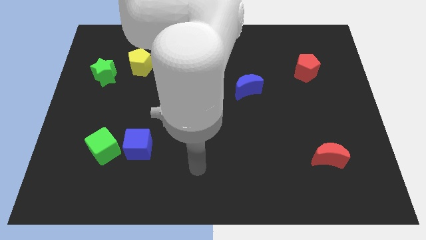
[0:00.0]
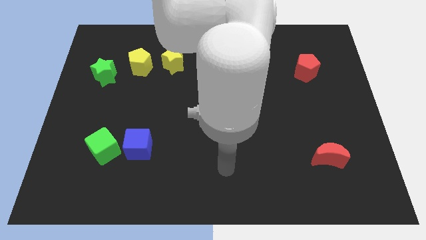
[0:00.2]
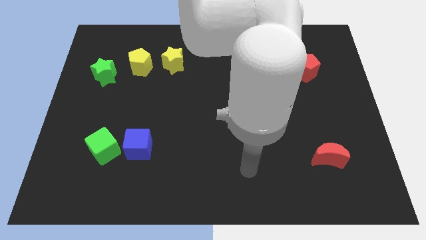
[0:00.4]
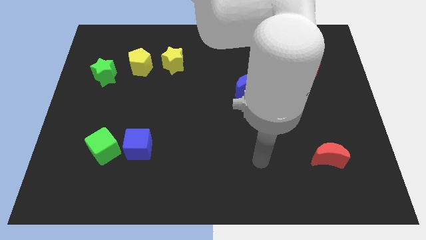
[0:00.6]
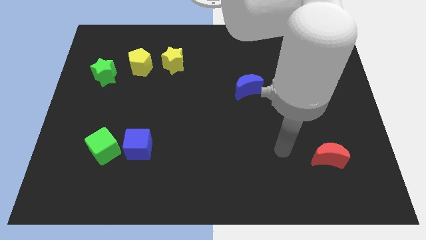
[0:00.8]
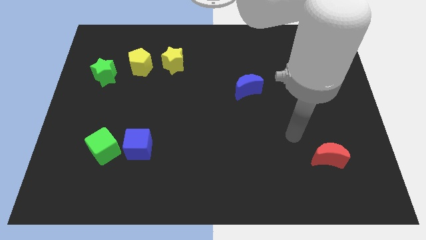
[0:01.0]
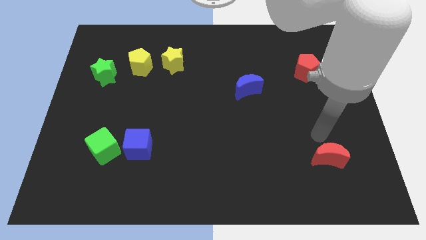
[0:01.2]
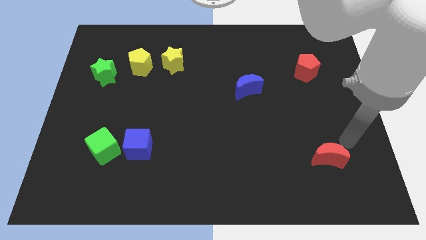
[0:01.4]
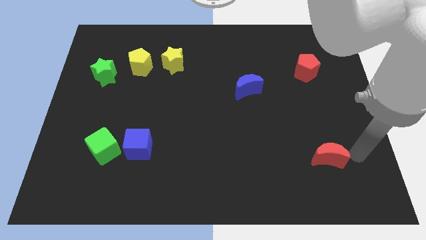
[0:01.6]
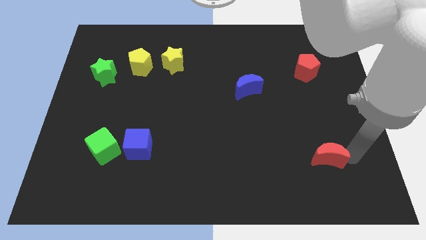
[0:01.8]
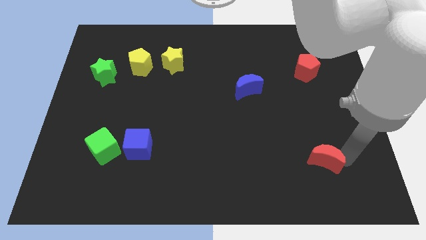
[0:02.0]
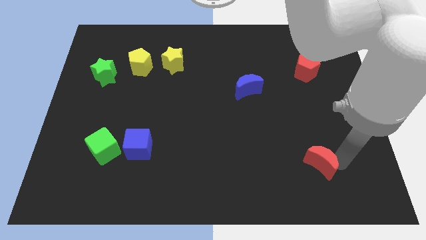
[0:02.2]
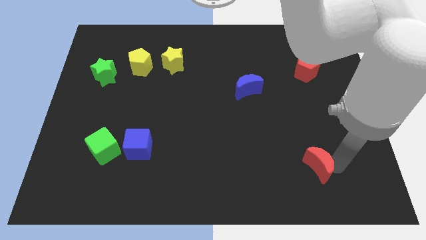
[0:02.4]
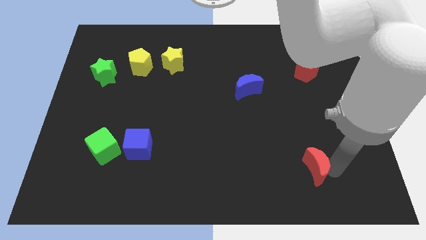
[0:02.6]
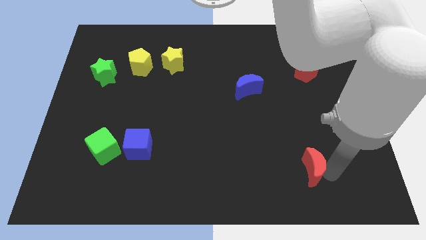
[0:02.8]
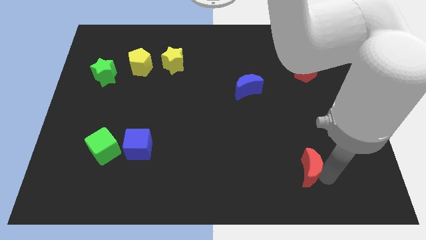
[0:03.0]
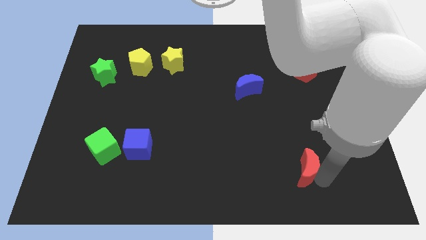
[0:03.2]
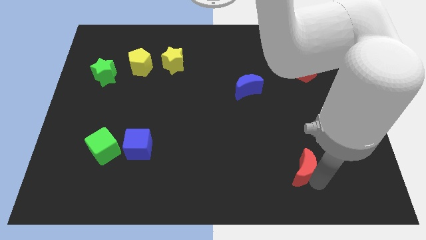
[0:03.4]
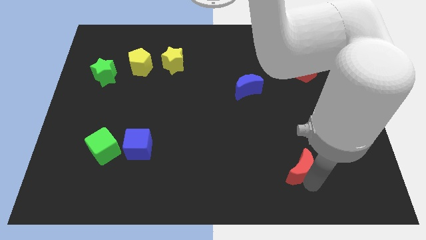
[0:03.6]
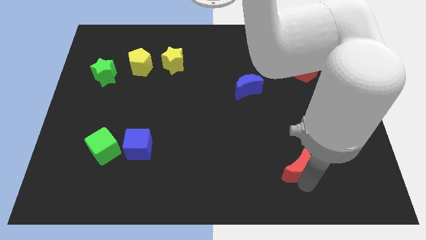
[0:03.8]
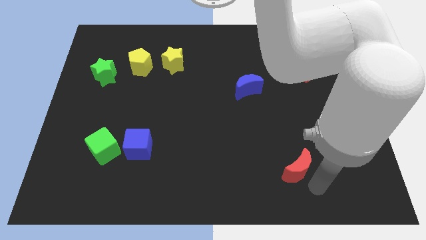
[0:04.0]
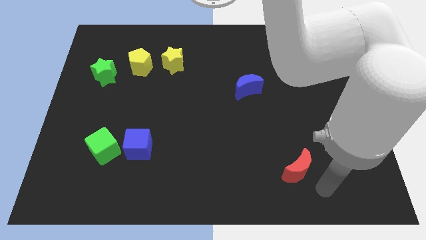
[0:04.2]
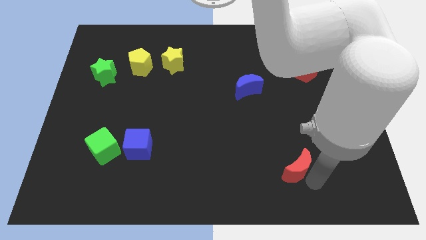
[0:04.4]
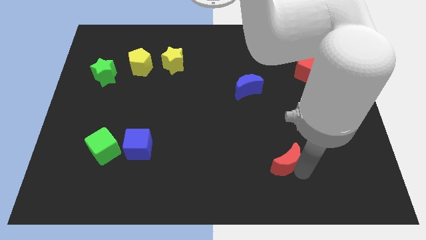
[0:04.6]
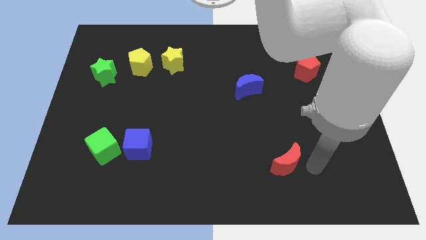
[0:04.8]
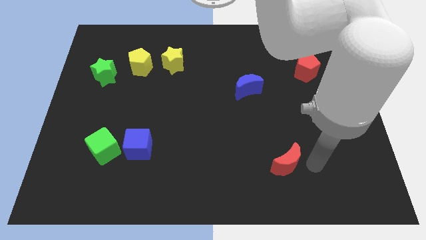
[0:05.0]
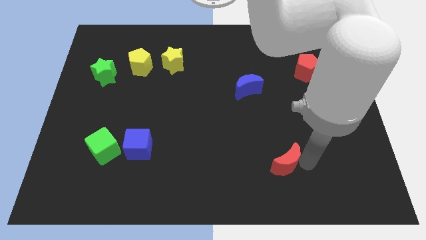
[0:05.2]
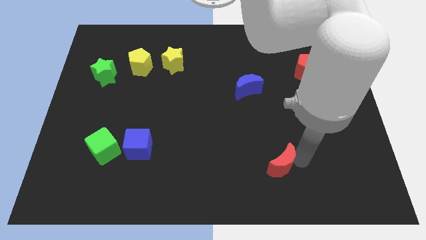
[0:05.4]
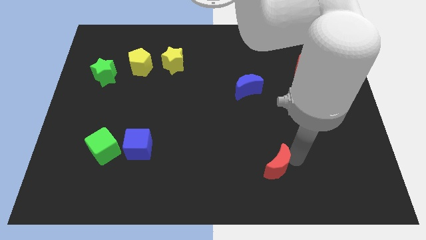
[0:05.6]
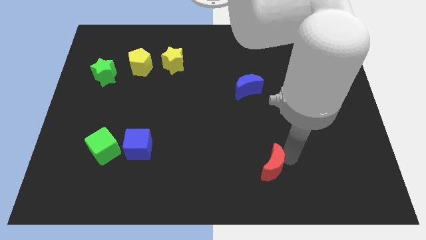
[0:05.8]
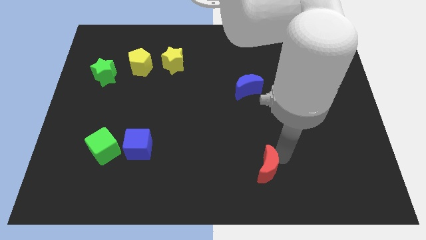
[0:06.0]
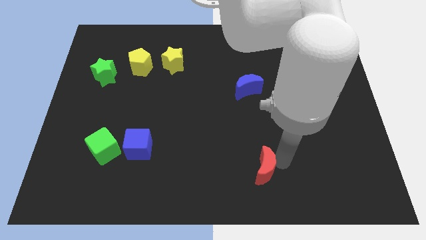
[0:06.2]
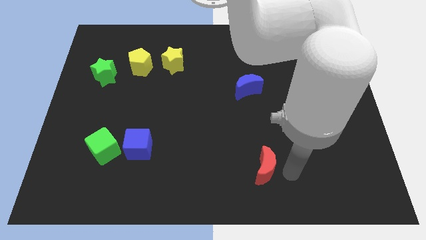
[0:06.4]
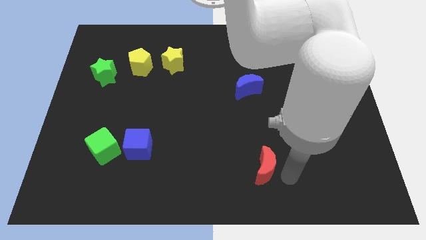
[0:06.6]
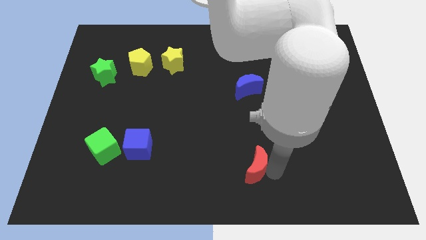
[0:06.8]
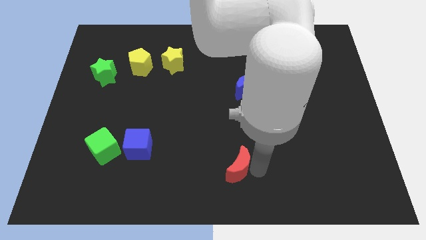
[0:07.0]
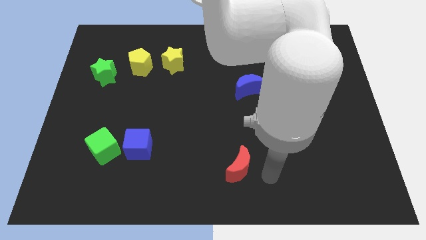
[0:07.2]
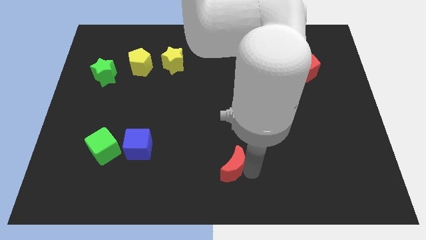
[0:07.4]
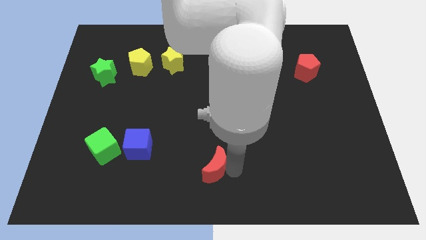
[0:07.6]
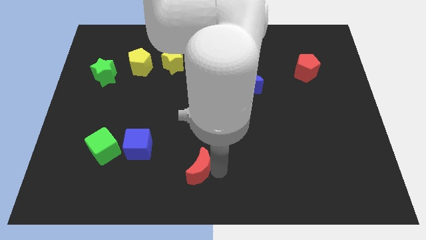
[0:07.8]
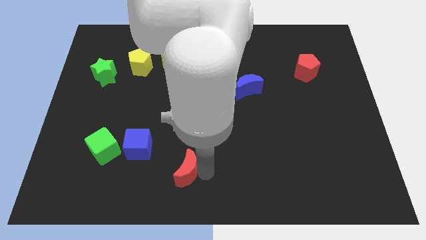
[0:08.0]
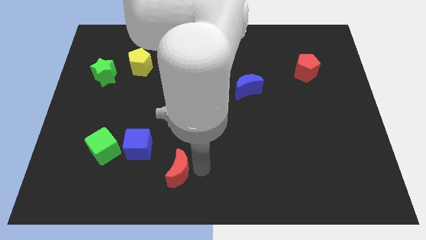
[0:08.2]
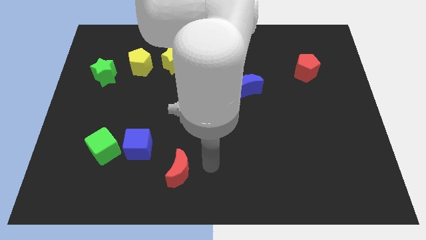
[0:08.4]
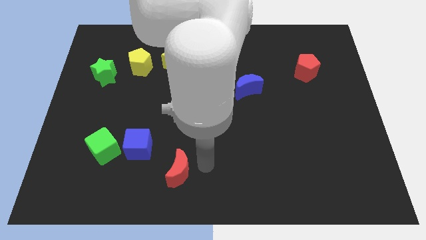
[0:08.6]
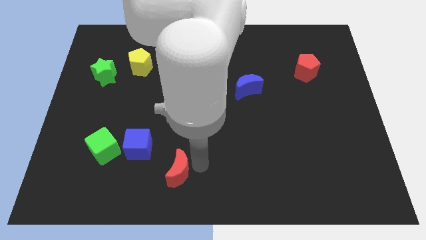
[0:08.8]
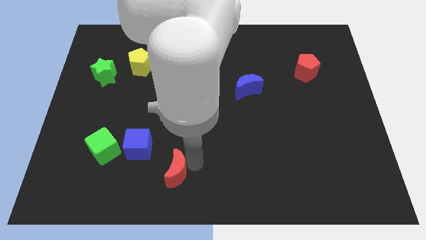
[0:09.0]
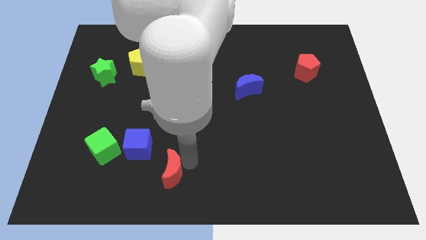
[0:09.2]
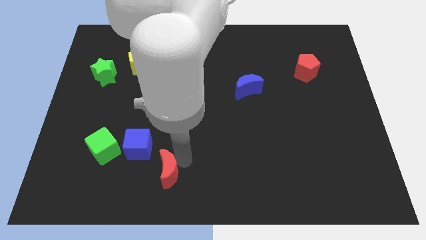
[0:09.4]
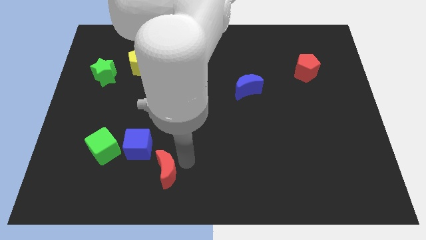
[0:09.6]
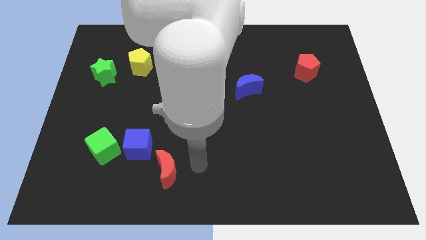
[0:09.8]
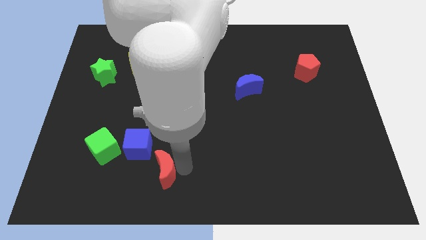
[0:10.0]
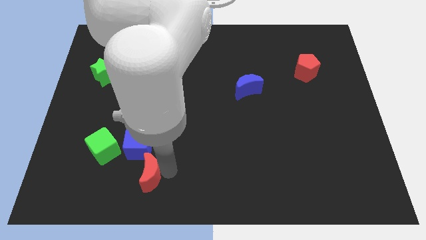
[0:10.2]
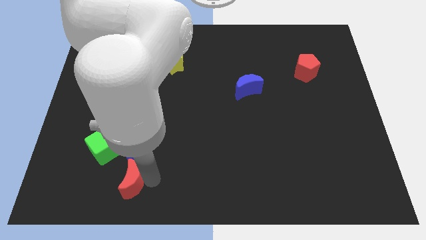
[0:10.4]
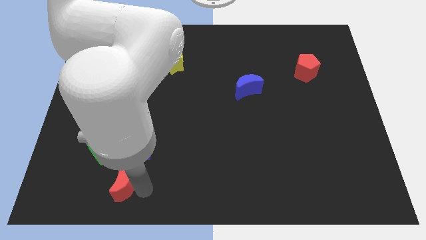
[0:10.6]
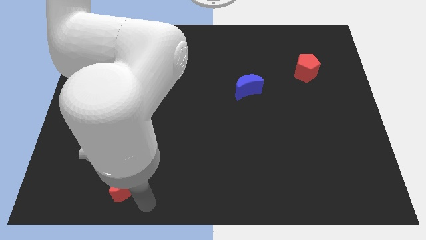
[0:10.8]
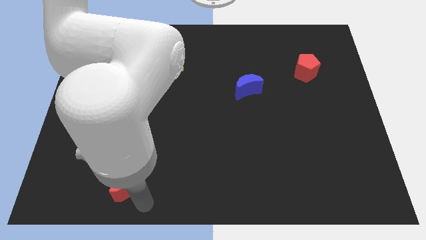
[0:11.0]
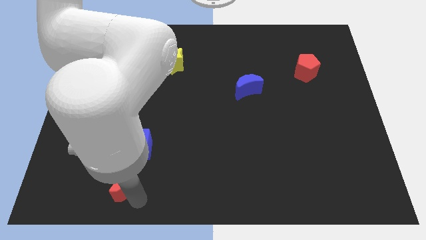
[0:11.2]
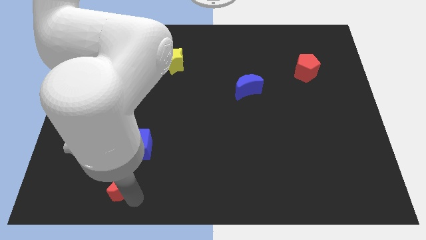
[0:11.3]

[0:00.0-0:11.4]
move the red moon to the bottom left of the blue cube

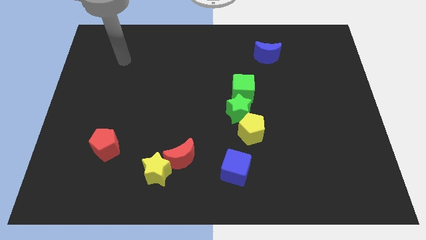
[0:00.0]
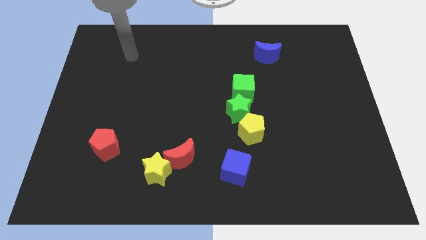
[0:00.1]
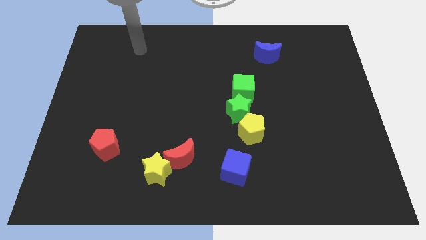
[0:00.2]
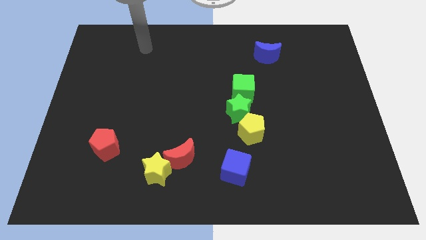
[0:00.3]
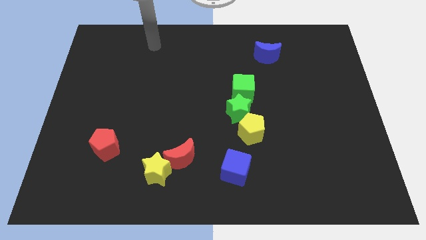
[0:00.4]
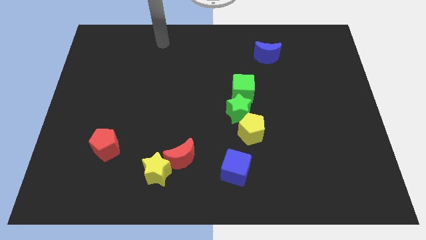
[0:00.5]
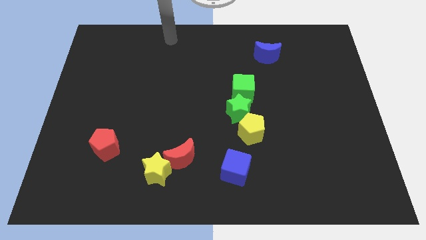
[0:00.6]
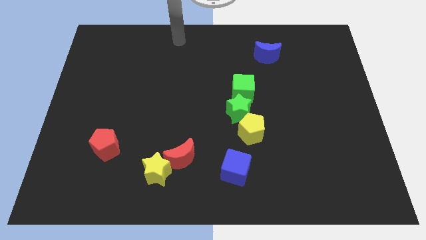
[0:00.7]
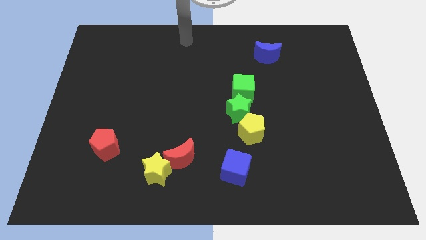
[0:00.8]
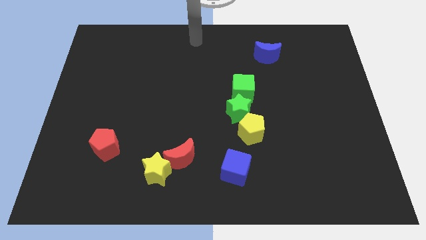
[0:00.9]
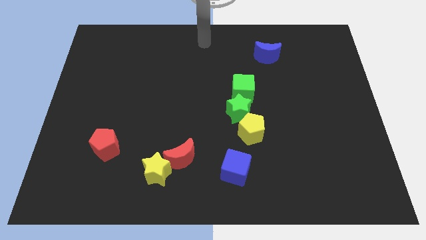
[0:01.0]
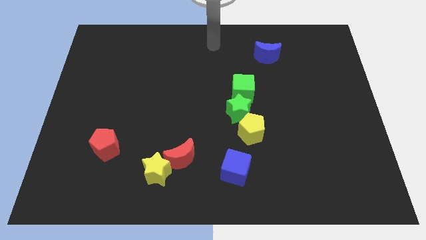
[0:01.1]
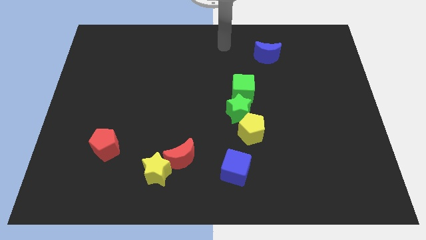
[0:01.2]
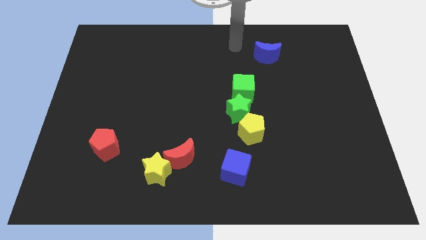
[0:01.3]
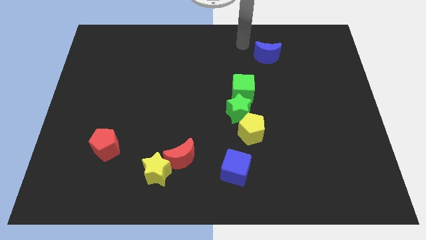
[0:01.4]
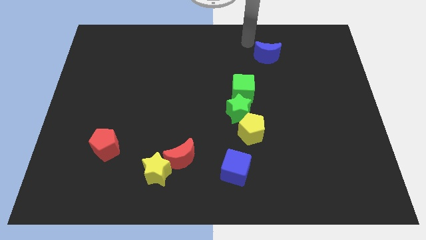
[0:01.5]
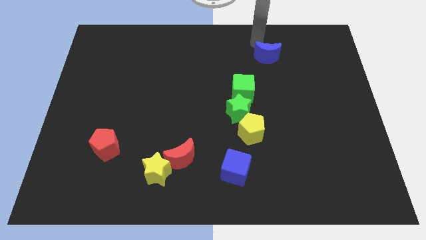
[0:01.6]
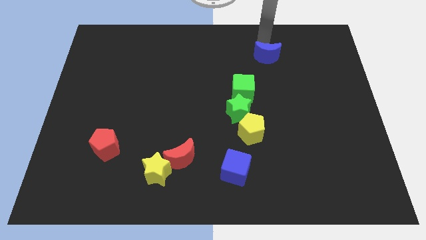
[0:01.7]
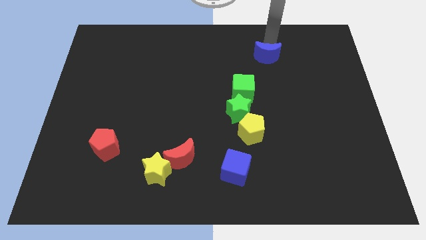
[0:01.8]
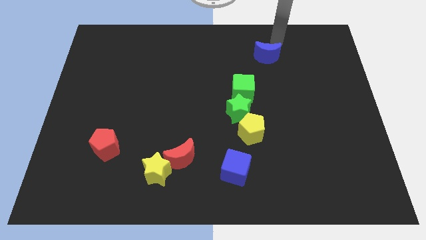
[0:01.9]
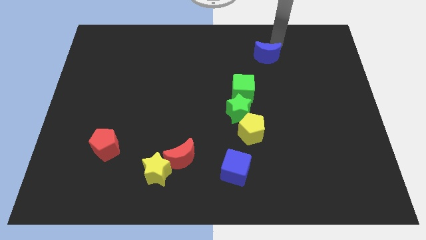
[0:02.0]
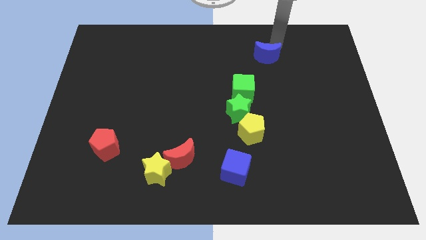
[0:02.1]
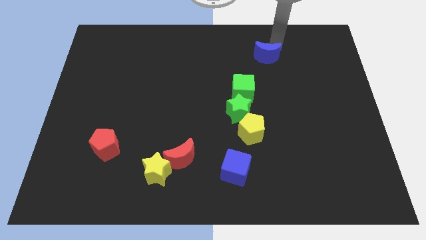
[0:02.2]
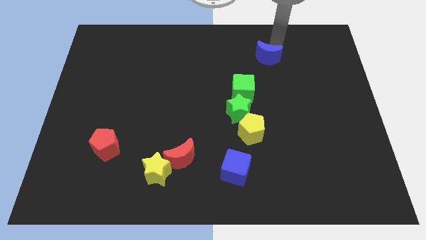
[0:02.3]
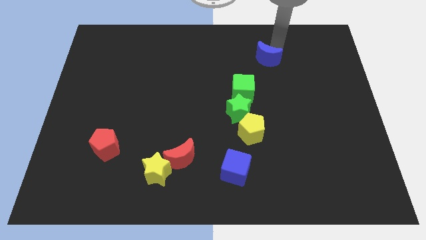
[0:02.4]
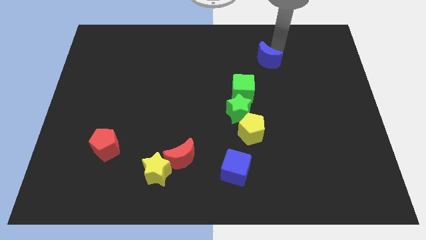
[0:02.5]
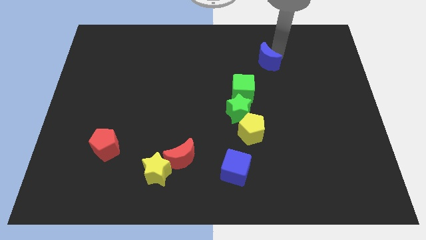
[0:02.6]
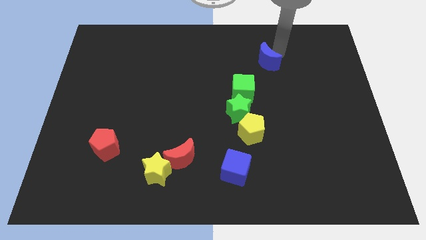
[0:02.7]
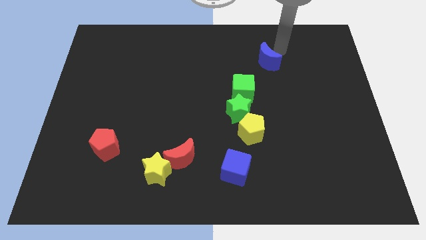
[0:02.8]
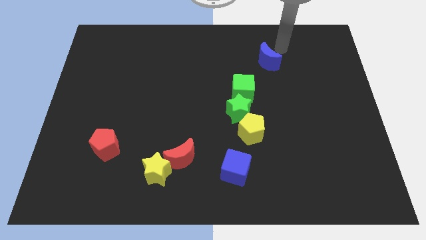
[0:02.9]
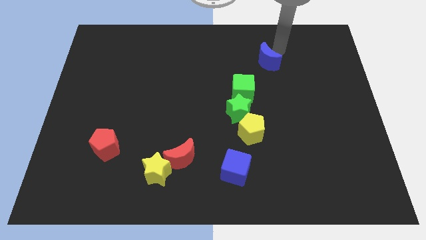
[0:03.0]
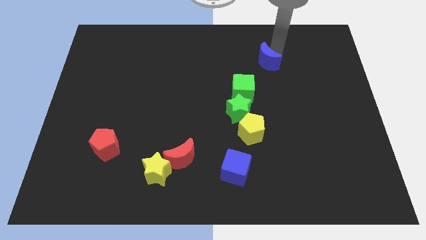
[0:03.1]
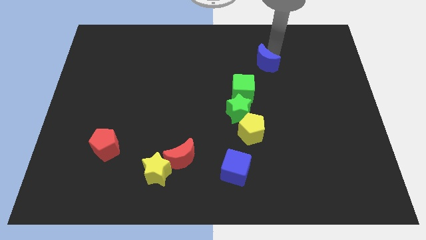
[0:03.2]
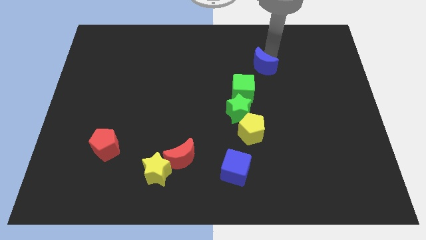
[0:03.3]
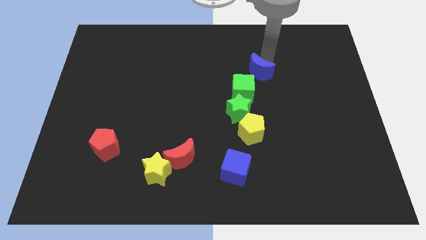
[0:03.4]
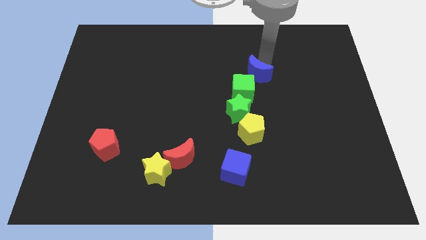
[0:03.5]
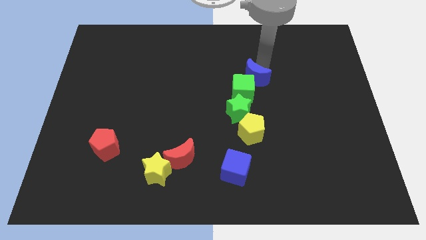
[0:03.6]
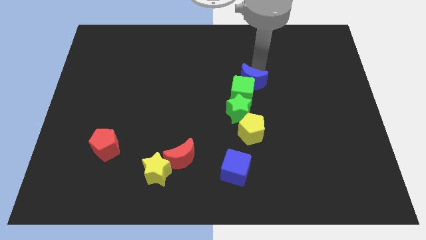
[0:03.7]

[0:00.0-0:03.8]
push the blue moon above the yellow pentagon
